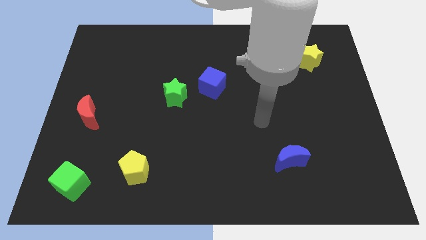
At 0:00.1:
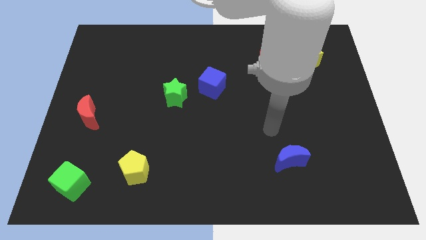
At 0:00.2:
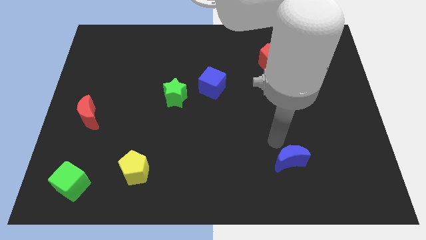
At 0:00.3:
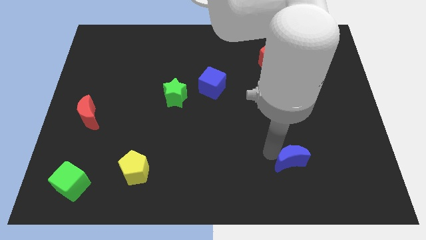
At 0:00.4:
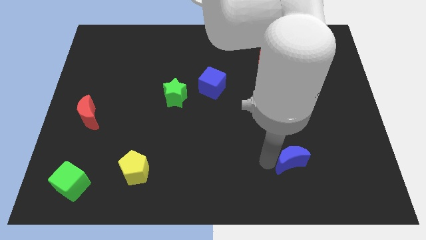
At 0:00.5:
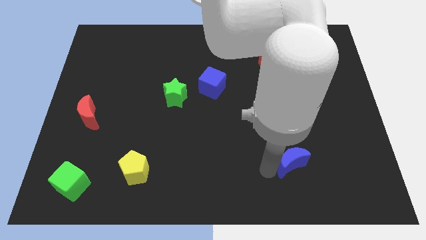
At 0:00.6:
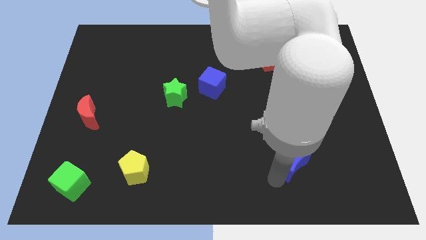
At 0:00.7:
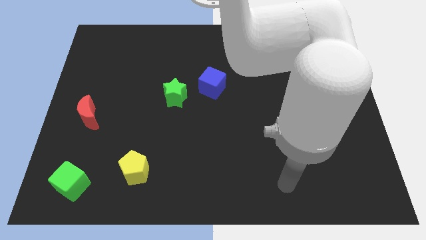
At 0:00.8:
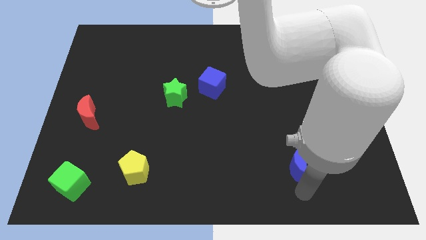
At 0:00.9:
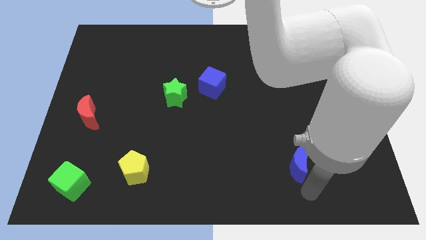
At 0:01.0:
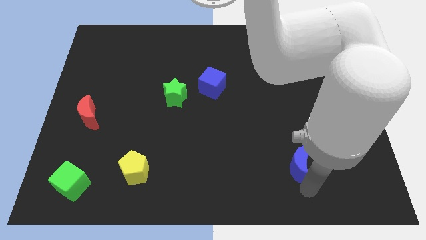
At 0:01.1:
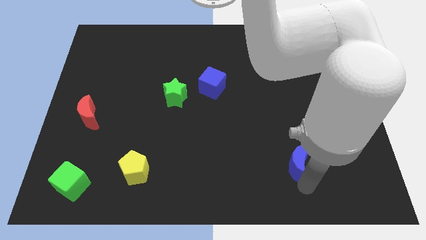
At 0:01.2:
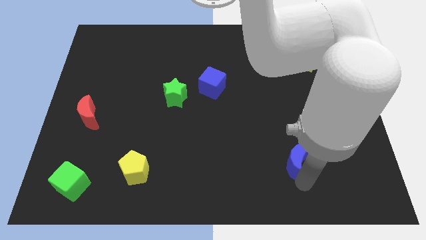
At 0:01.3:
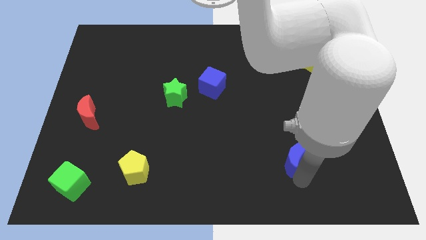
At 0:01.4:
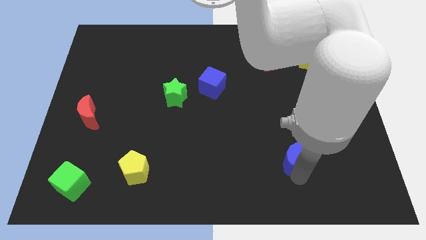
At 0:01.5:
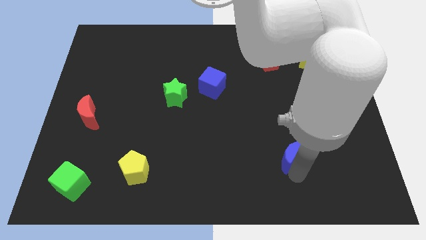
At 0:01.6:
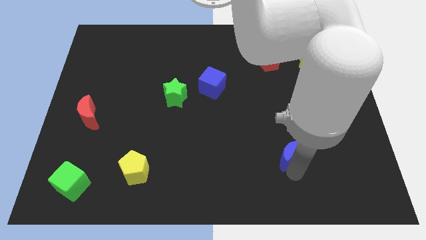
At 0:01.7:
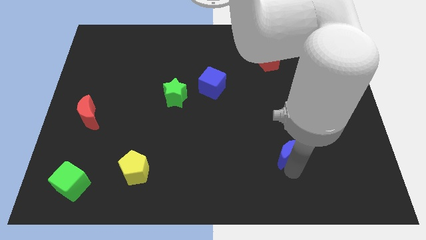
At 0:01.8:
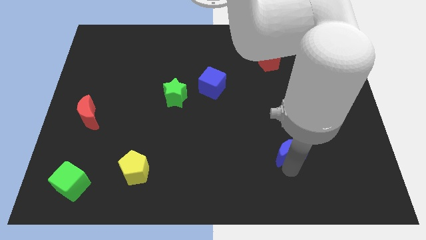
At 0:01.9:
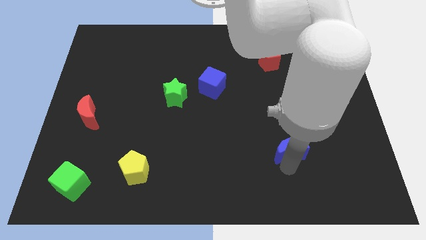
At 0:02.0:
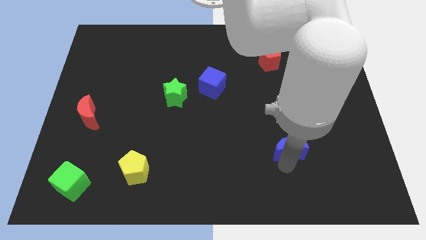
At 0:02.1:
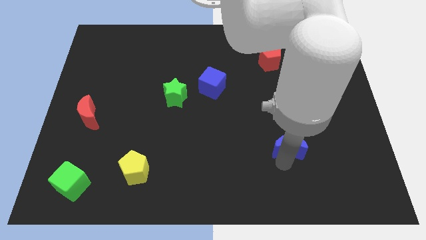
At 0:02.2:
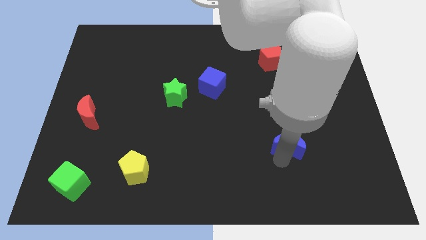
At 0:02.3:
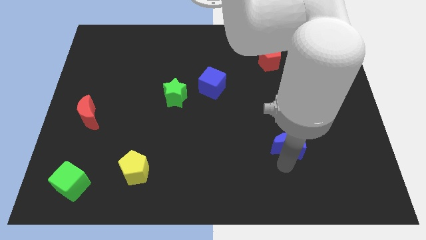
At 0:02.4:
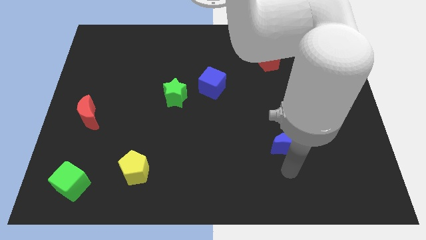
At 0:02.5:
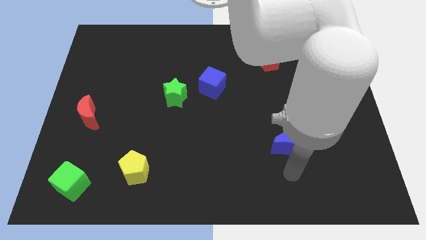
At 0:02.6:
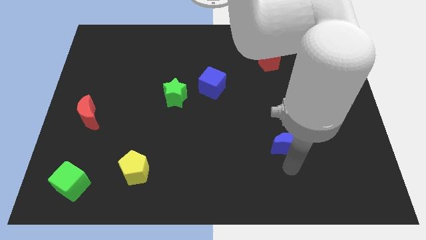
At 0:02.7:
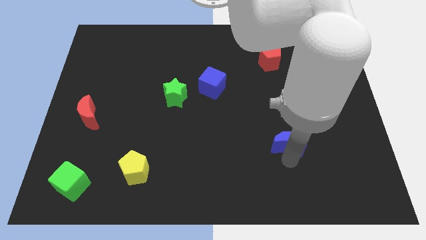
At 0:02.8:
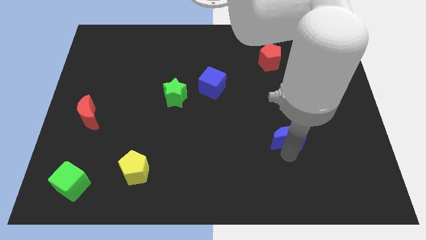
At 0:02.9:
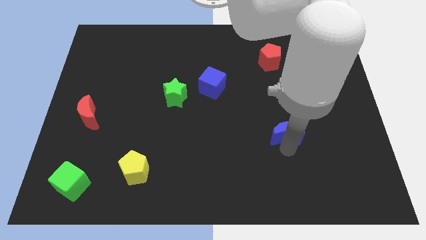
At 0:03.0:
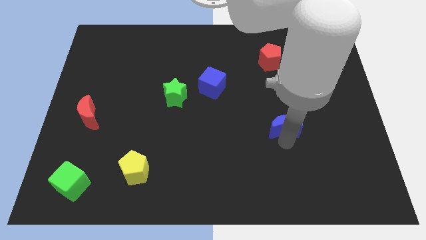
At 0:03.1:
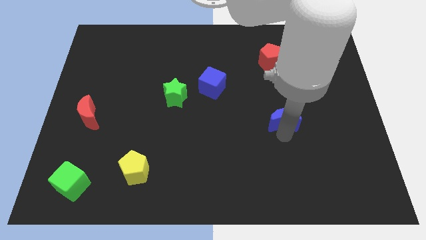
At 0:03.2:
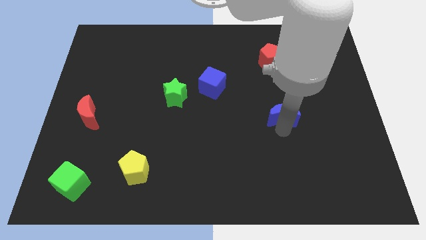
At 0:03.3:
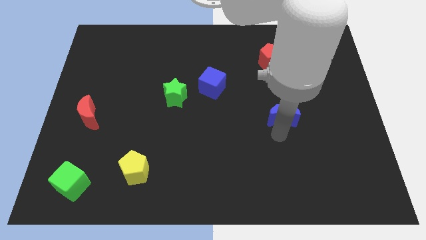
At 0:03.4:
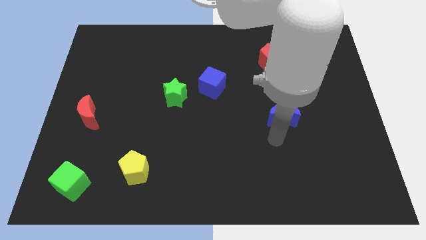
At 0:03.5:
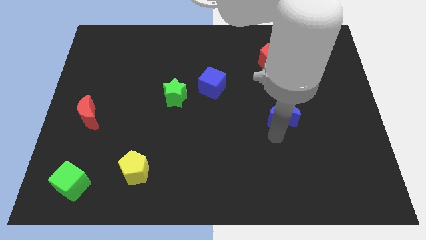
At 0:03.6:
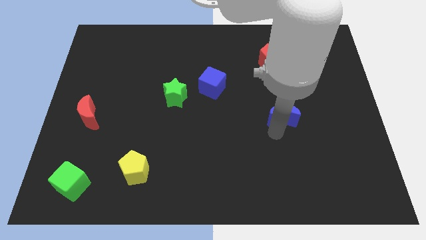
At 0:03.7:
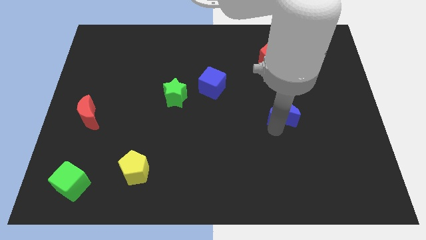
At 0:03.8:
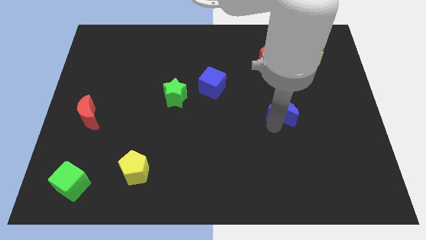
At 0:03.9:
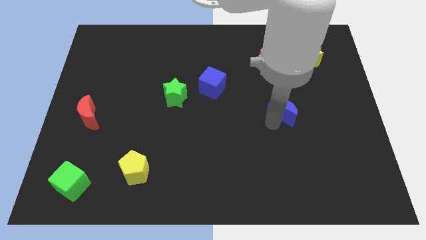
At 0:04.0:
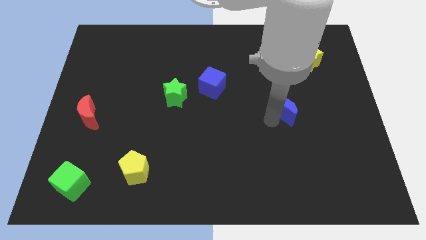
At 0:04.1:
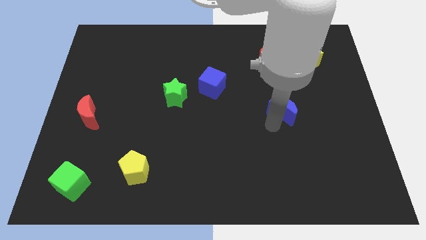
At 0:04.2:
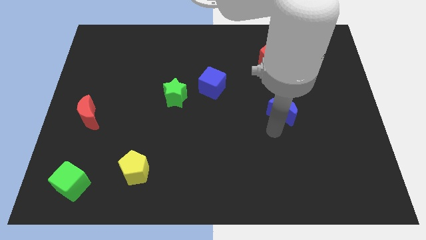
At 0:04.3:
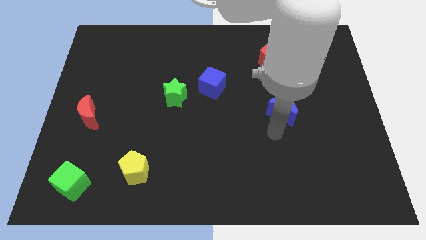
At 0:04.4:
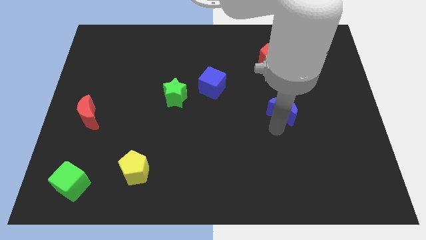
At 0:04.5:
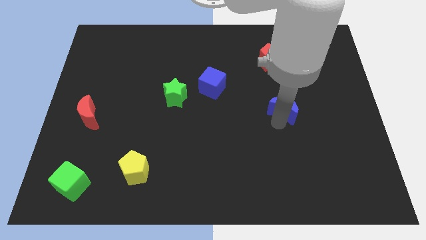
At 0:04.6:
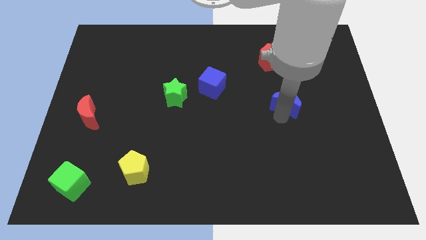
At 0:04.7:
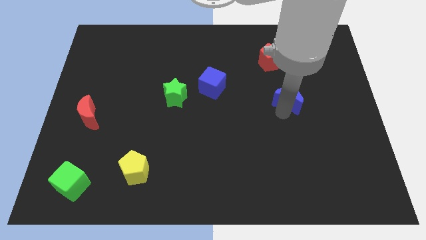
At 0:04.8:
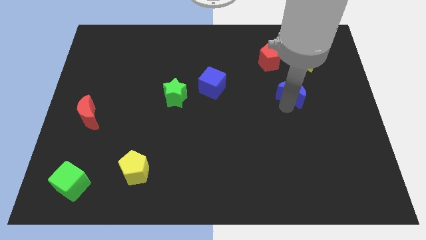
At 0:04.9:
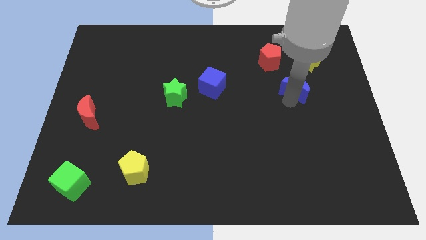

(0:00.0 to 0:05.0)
move the blue moon to the bottom left side of the yellow star

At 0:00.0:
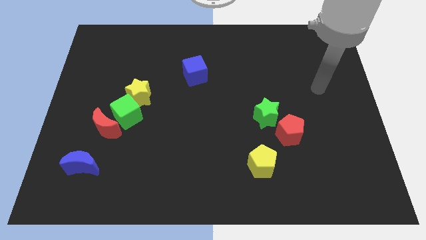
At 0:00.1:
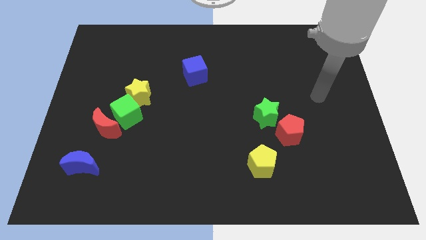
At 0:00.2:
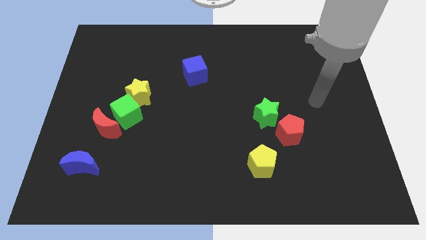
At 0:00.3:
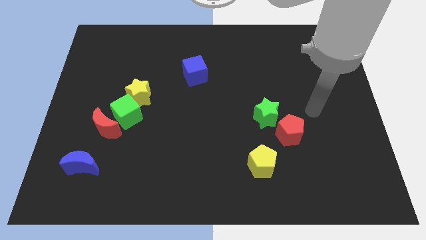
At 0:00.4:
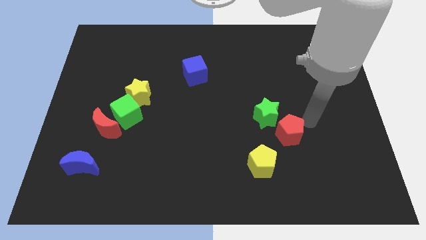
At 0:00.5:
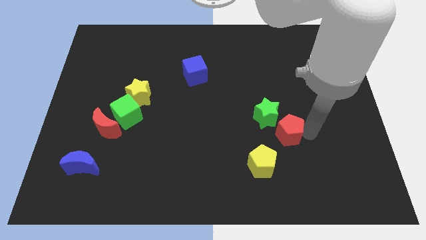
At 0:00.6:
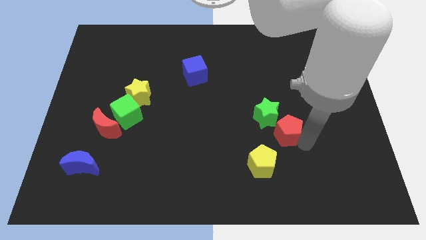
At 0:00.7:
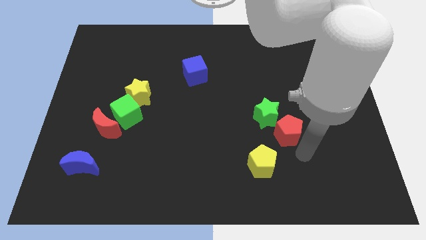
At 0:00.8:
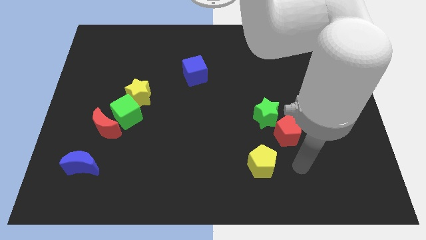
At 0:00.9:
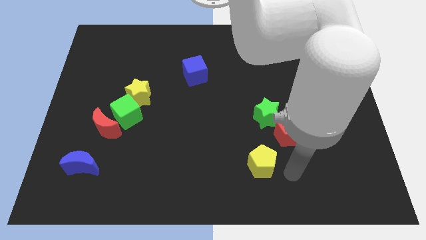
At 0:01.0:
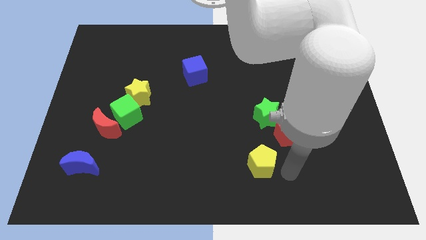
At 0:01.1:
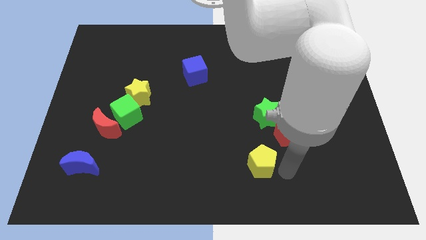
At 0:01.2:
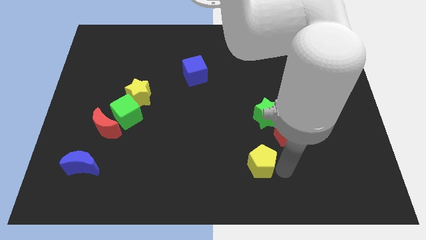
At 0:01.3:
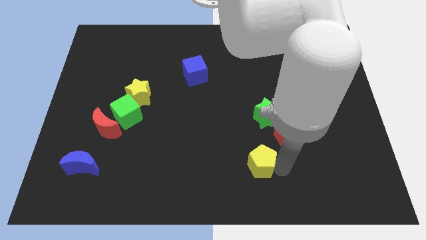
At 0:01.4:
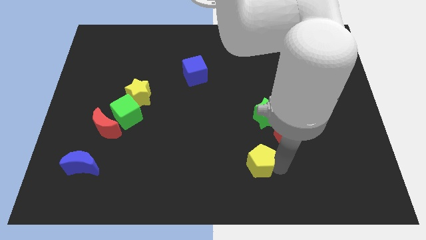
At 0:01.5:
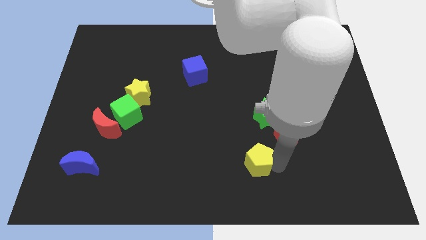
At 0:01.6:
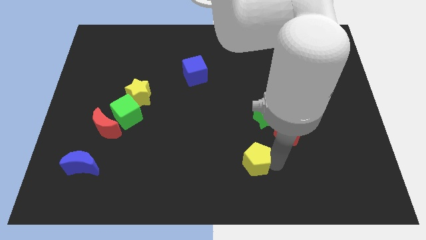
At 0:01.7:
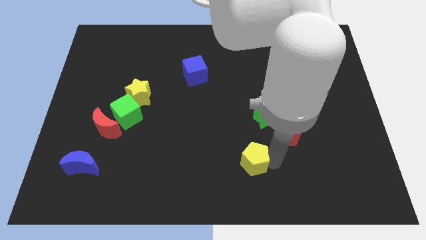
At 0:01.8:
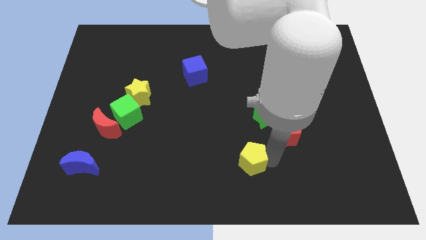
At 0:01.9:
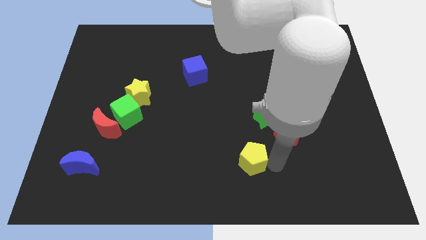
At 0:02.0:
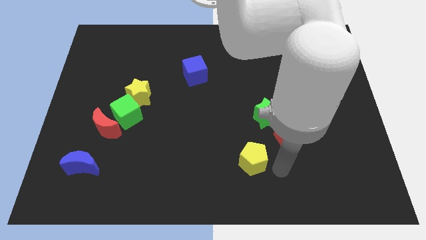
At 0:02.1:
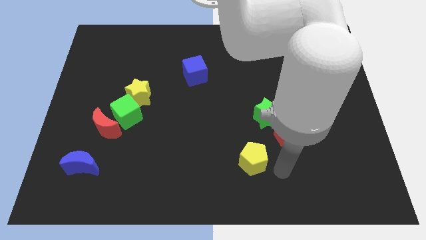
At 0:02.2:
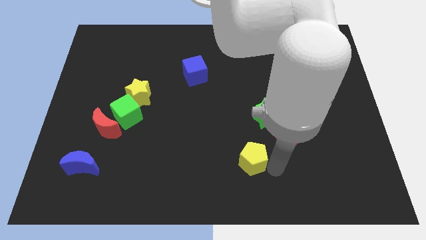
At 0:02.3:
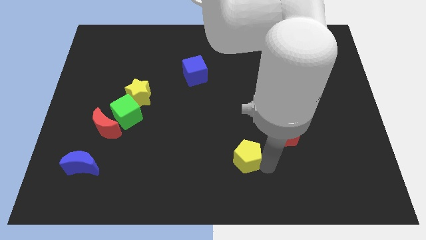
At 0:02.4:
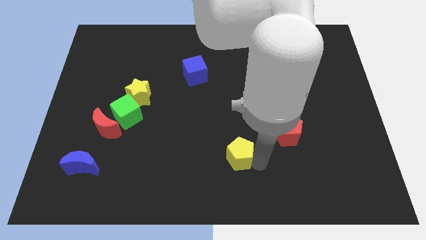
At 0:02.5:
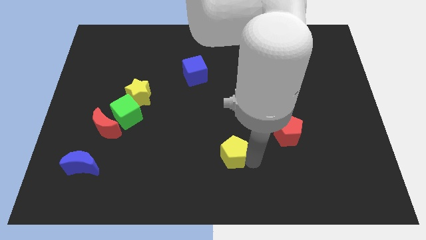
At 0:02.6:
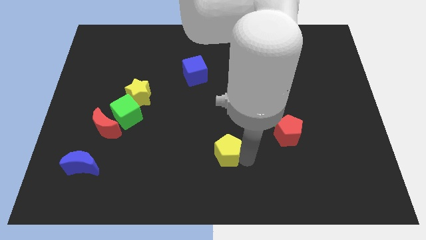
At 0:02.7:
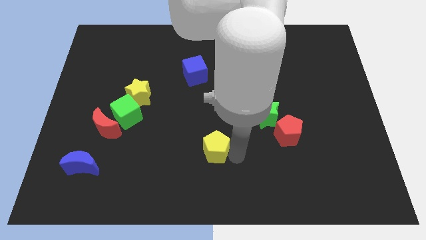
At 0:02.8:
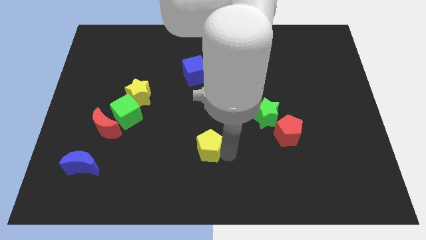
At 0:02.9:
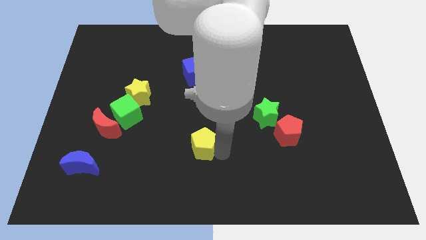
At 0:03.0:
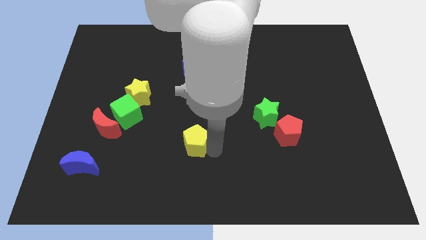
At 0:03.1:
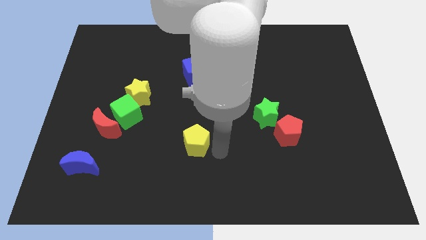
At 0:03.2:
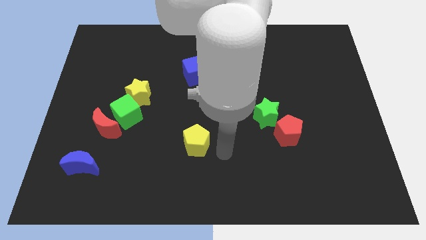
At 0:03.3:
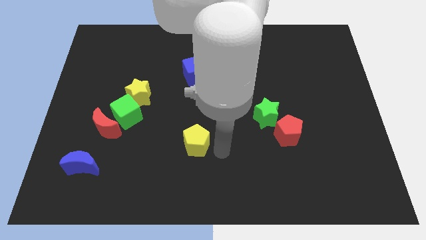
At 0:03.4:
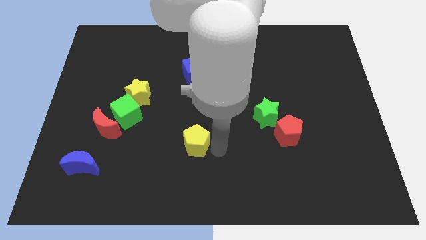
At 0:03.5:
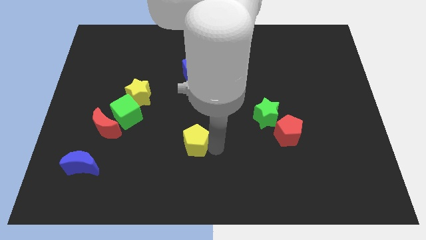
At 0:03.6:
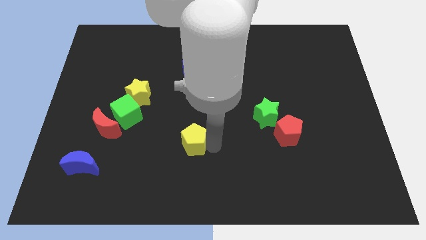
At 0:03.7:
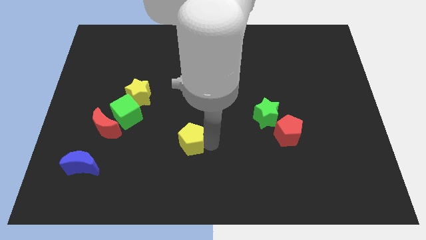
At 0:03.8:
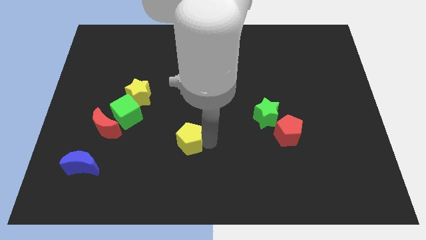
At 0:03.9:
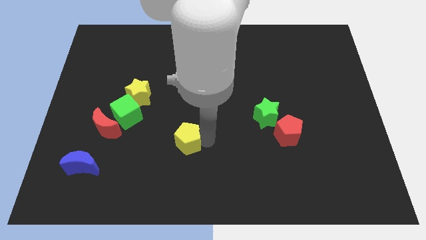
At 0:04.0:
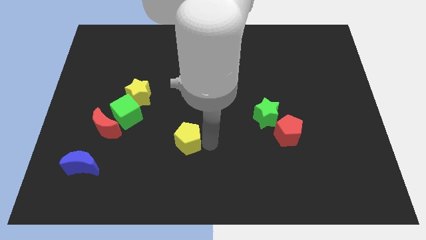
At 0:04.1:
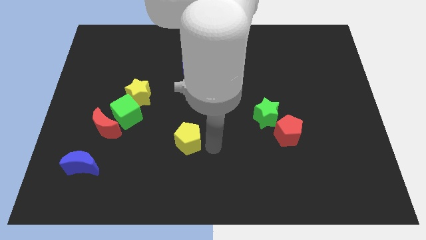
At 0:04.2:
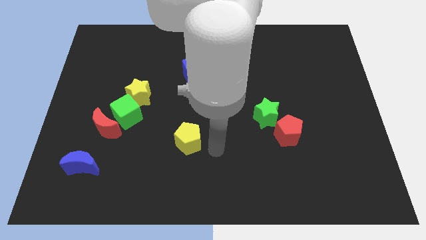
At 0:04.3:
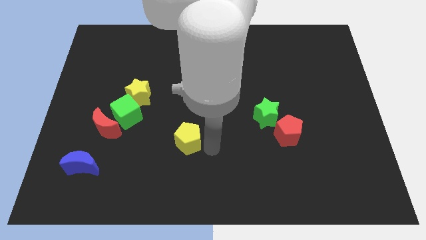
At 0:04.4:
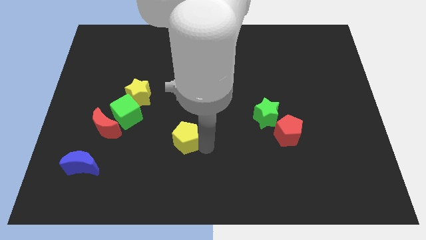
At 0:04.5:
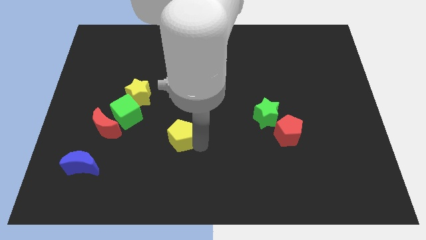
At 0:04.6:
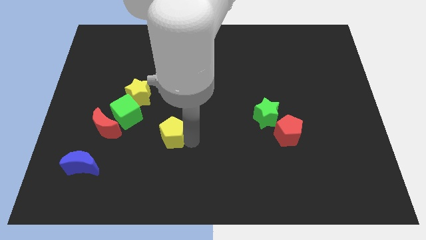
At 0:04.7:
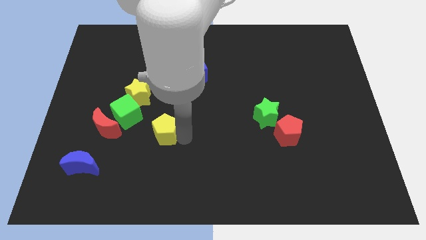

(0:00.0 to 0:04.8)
put the yellow pentagon to the bottom right of the green cube
